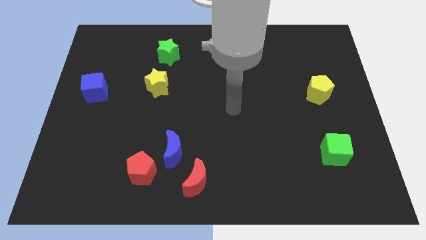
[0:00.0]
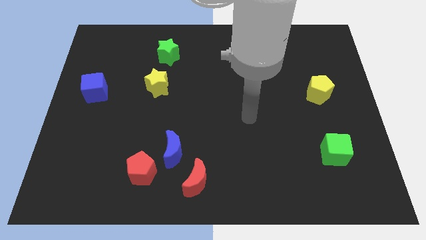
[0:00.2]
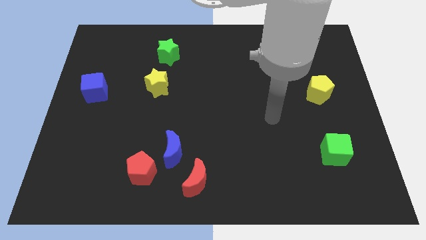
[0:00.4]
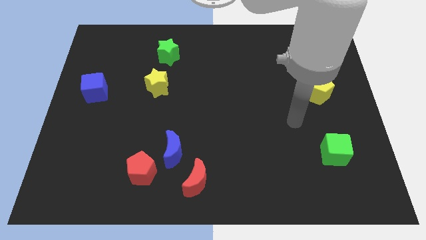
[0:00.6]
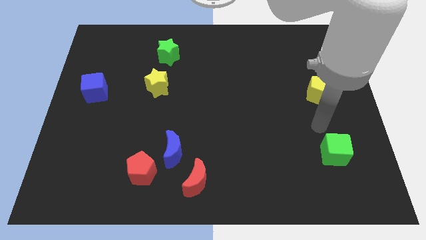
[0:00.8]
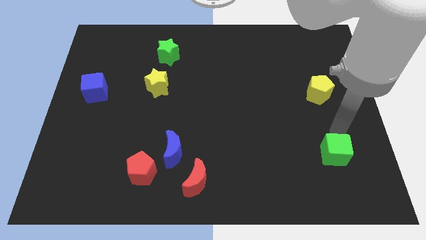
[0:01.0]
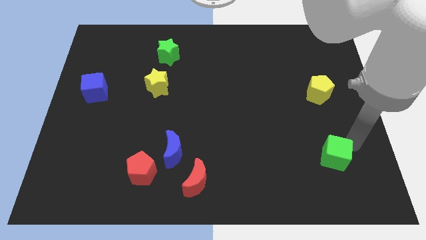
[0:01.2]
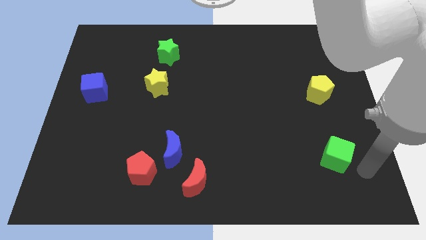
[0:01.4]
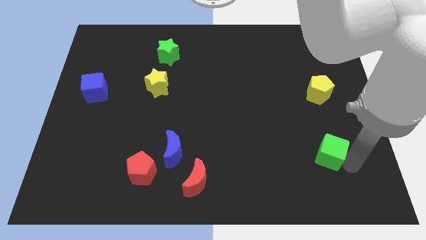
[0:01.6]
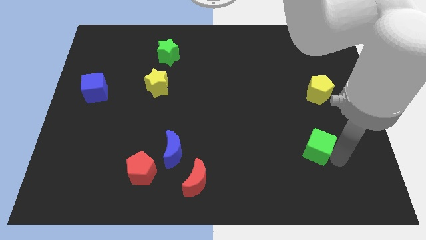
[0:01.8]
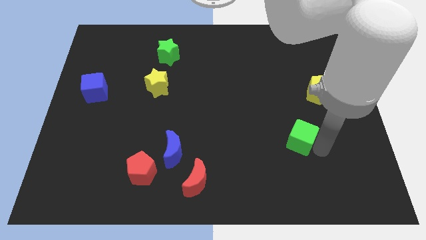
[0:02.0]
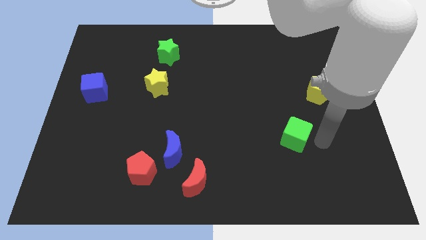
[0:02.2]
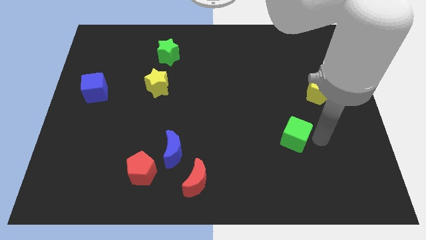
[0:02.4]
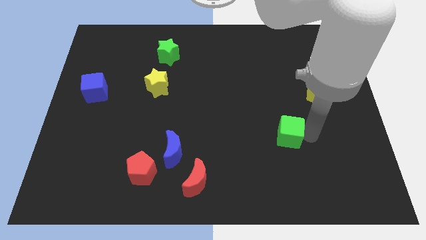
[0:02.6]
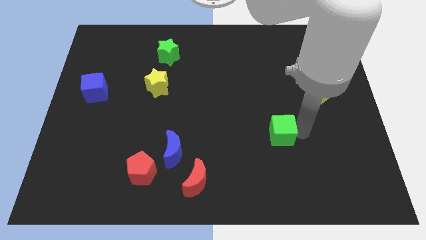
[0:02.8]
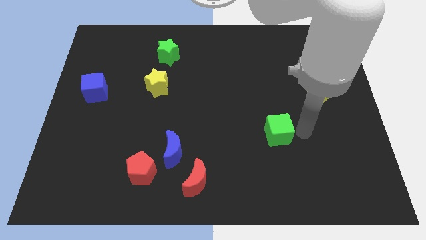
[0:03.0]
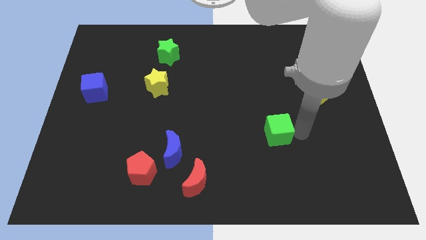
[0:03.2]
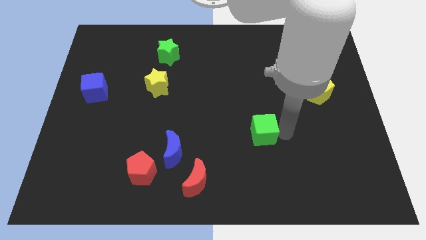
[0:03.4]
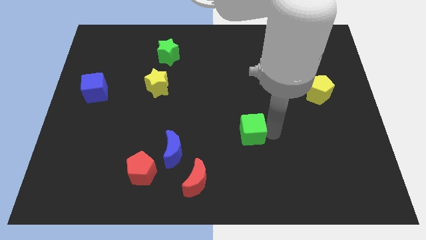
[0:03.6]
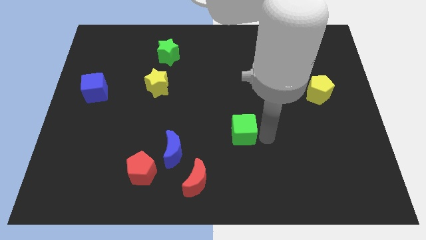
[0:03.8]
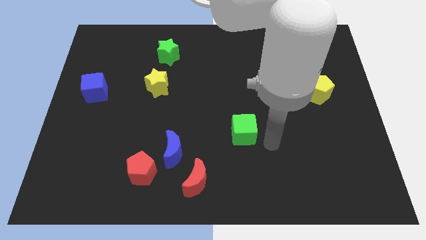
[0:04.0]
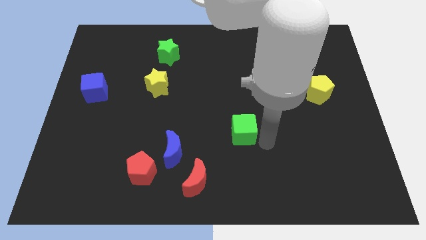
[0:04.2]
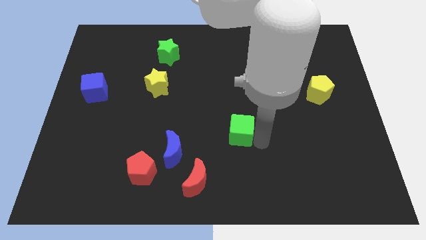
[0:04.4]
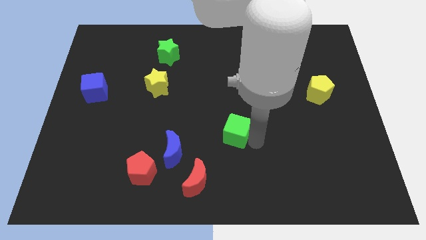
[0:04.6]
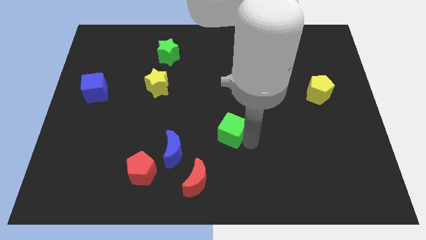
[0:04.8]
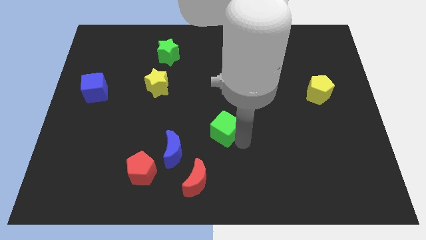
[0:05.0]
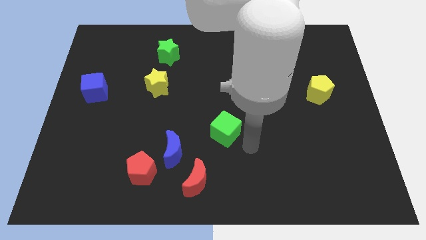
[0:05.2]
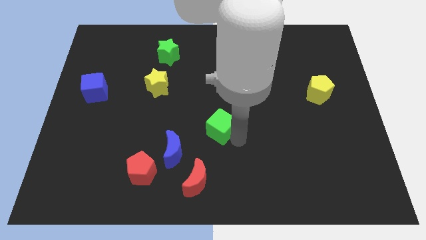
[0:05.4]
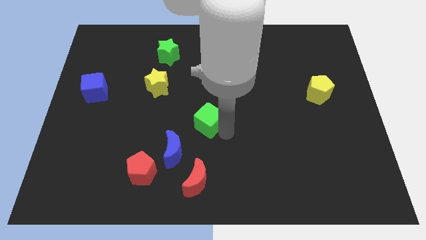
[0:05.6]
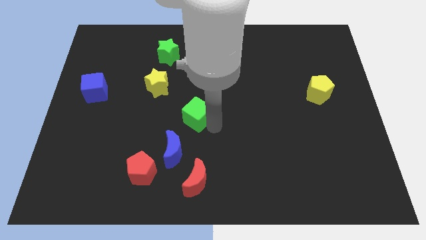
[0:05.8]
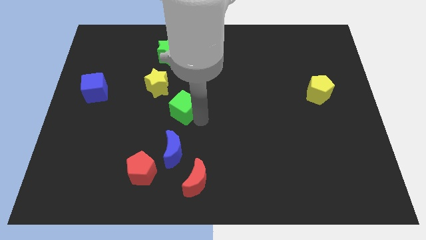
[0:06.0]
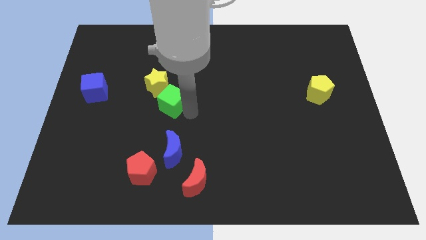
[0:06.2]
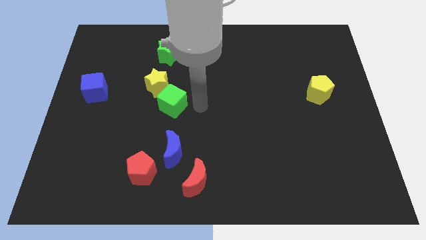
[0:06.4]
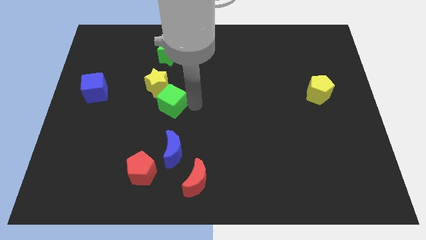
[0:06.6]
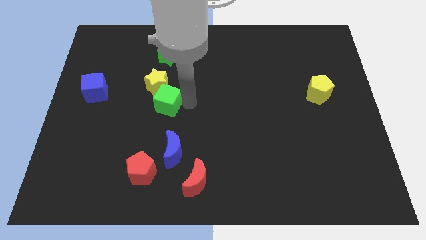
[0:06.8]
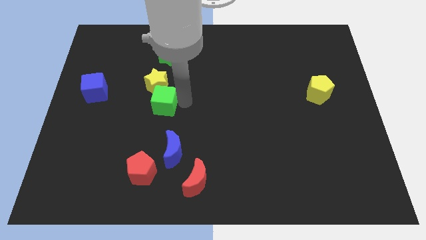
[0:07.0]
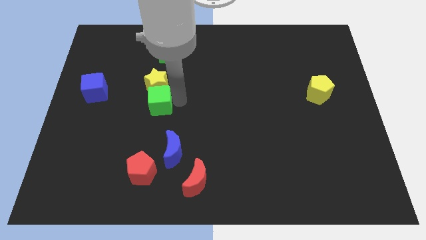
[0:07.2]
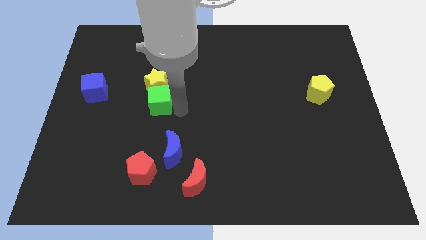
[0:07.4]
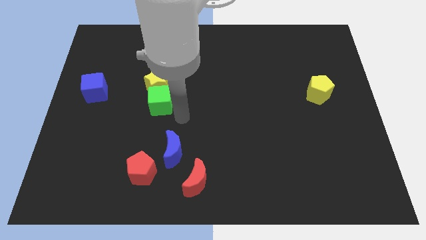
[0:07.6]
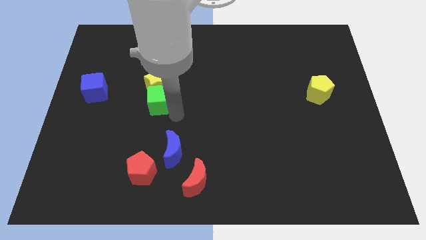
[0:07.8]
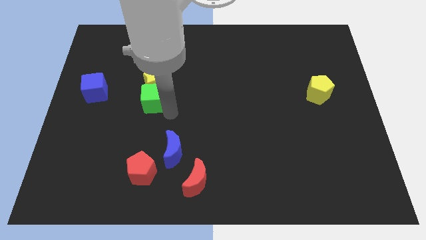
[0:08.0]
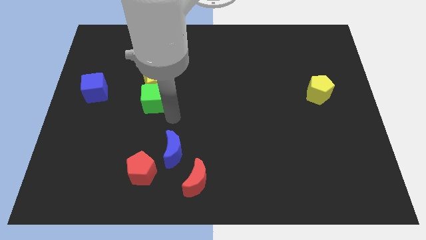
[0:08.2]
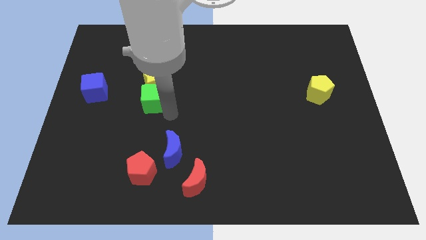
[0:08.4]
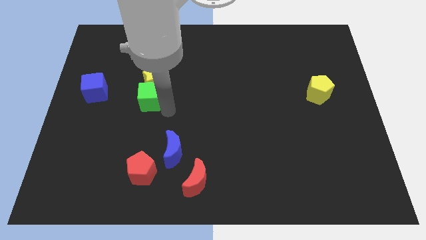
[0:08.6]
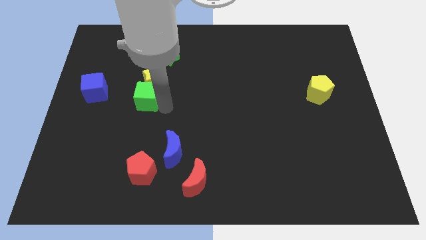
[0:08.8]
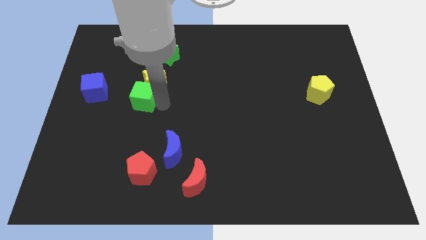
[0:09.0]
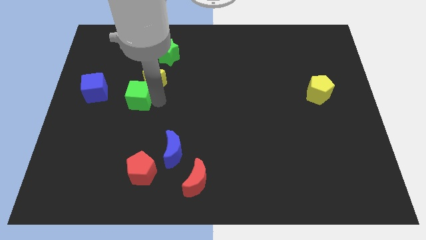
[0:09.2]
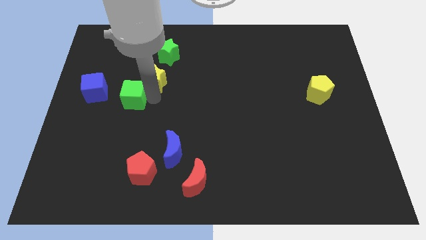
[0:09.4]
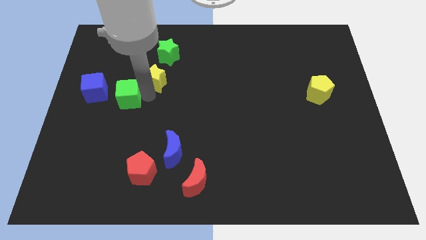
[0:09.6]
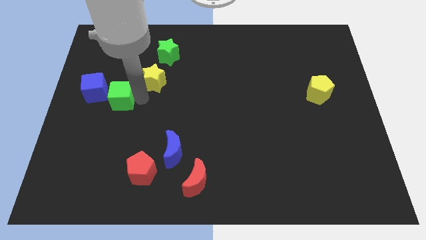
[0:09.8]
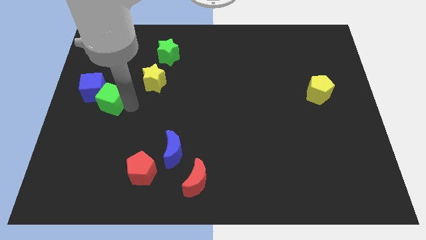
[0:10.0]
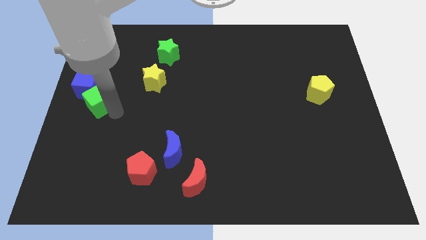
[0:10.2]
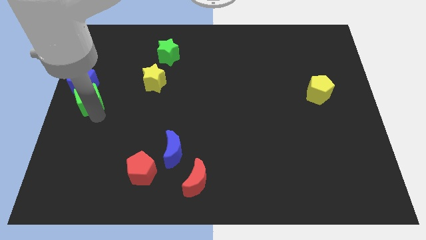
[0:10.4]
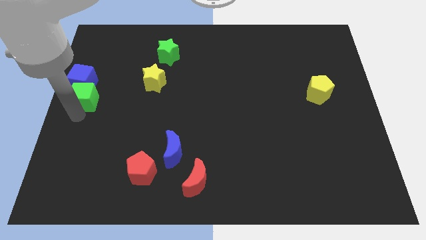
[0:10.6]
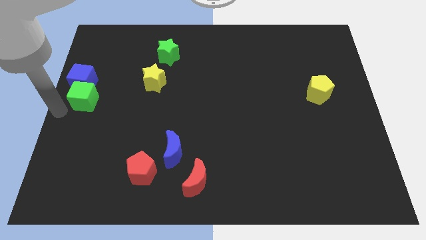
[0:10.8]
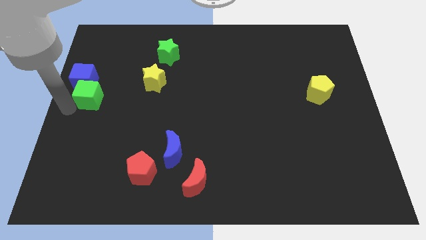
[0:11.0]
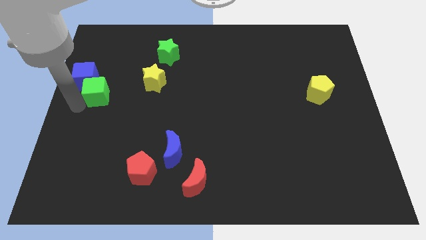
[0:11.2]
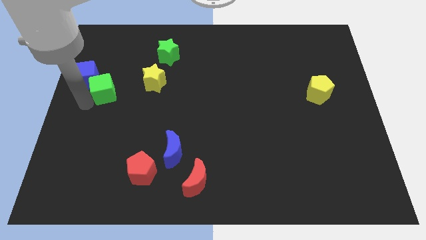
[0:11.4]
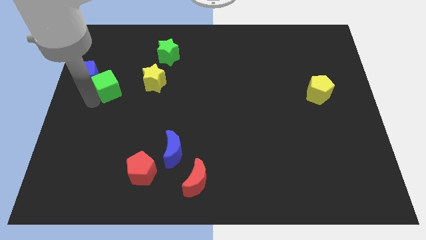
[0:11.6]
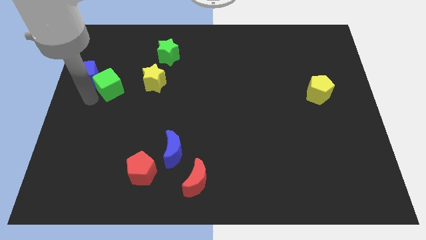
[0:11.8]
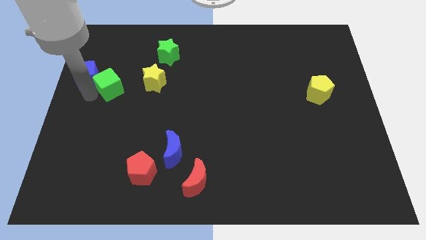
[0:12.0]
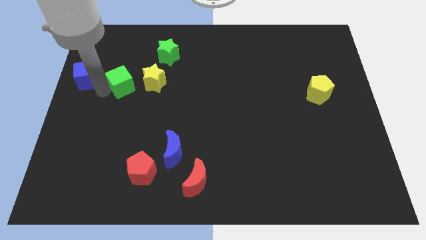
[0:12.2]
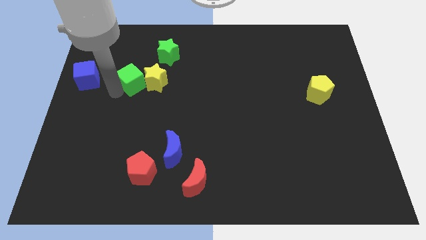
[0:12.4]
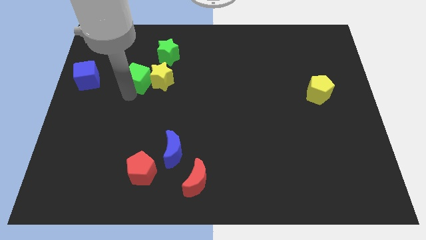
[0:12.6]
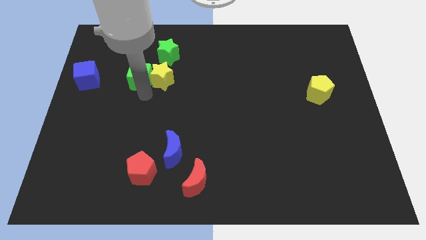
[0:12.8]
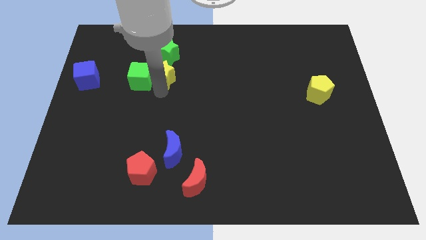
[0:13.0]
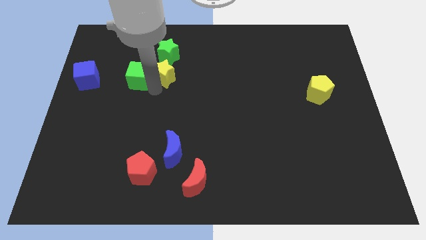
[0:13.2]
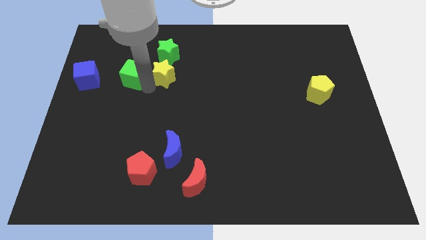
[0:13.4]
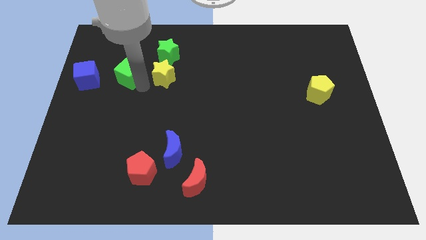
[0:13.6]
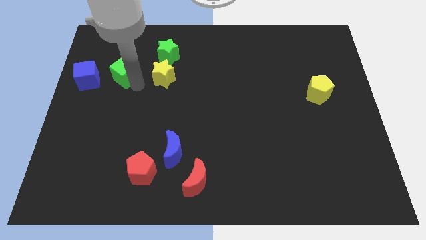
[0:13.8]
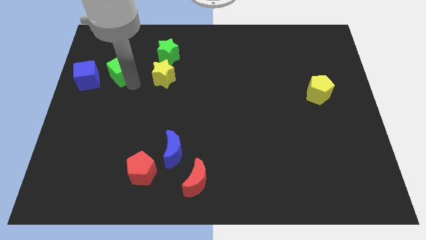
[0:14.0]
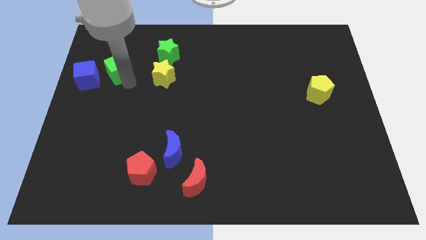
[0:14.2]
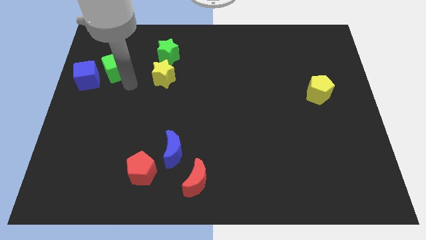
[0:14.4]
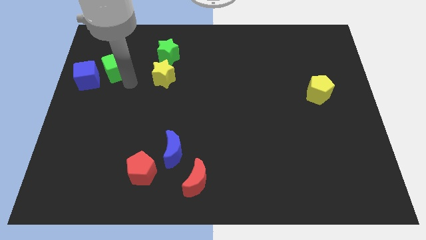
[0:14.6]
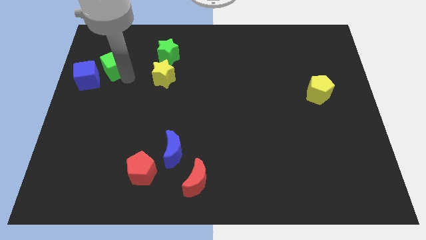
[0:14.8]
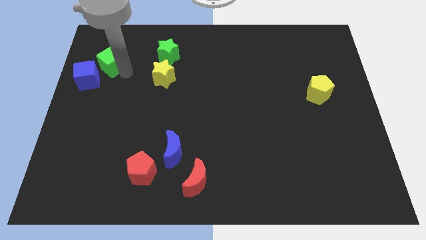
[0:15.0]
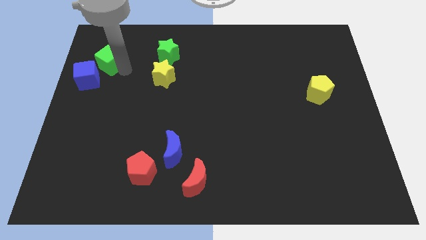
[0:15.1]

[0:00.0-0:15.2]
slide the green cube above the blue cube

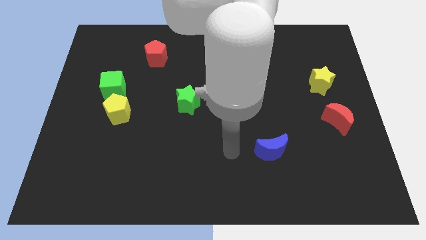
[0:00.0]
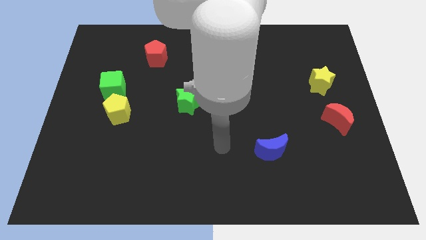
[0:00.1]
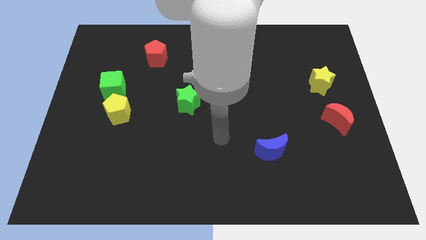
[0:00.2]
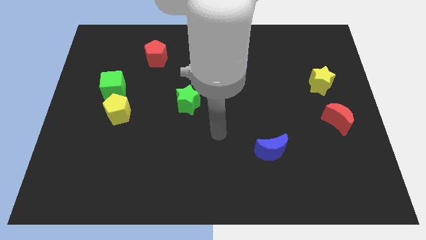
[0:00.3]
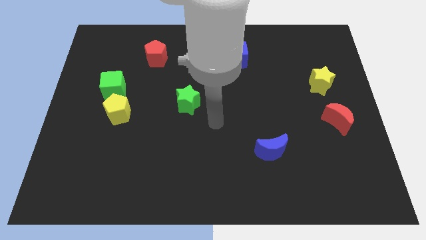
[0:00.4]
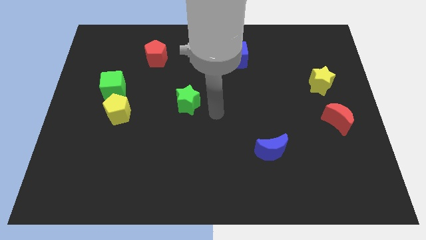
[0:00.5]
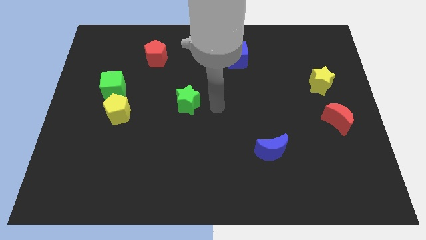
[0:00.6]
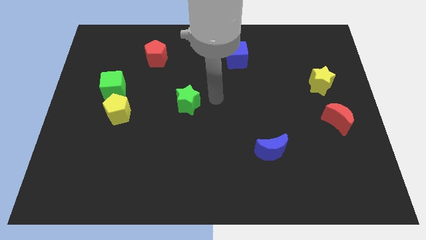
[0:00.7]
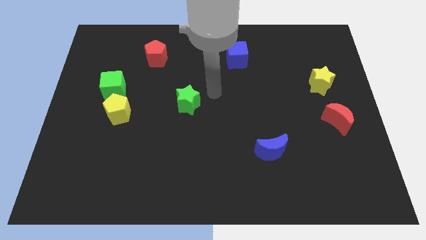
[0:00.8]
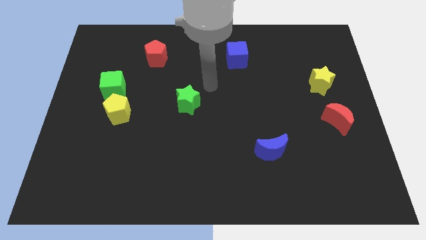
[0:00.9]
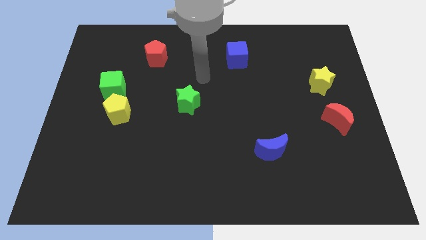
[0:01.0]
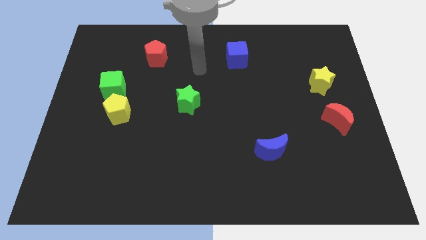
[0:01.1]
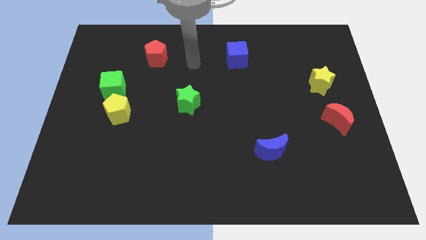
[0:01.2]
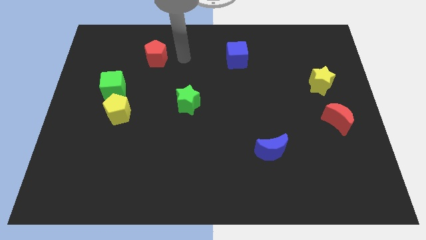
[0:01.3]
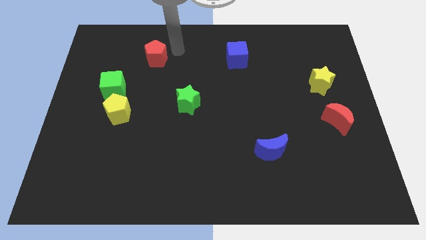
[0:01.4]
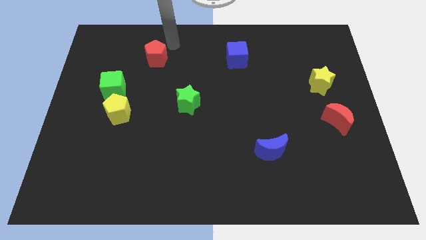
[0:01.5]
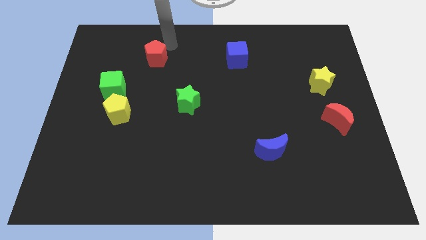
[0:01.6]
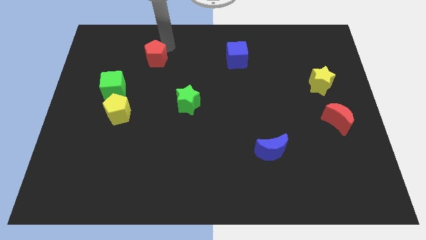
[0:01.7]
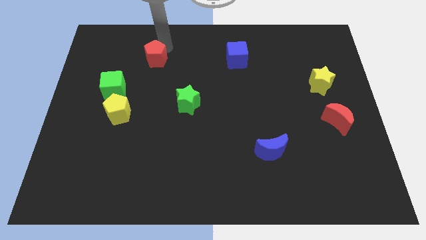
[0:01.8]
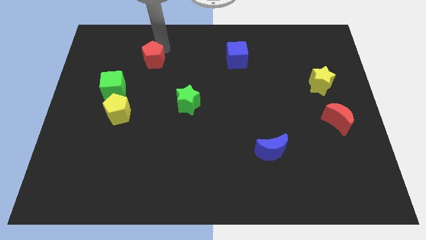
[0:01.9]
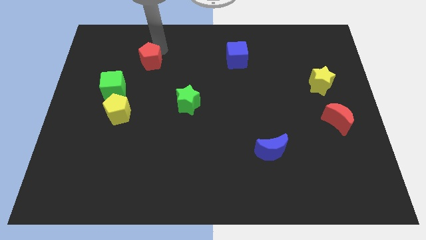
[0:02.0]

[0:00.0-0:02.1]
slide the red pentagon diagonally up and to the right of the green cube
